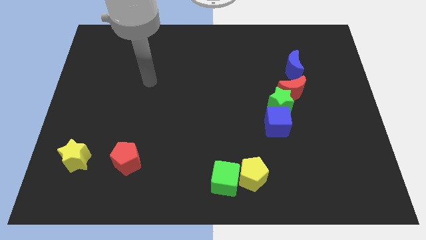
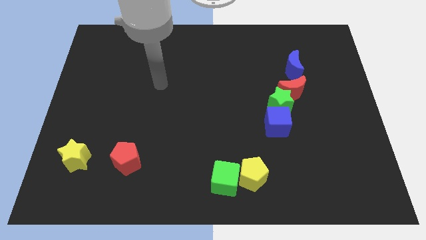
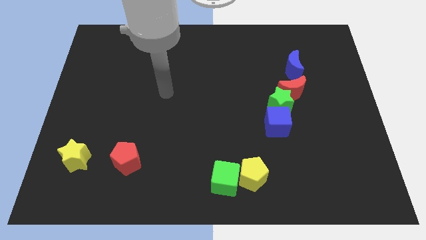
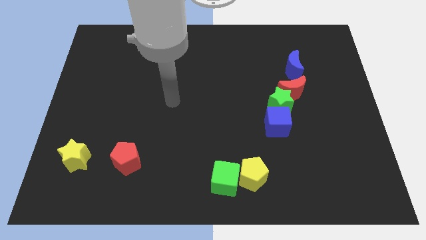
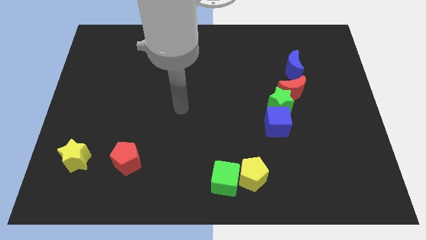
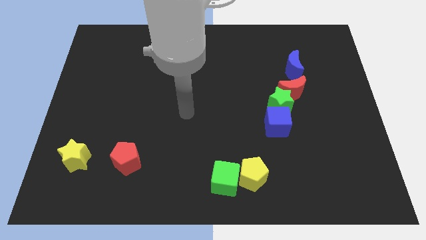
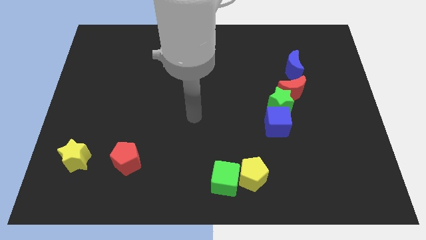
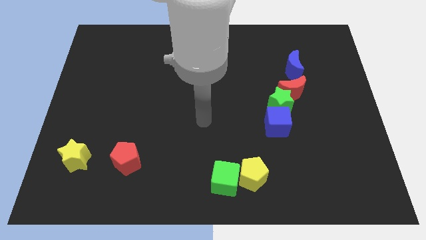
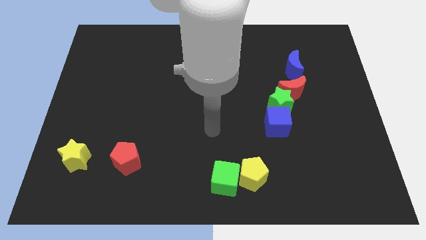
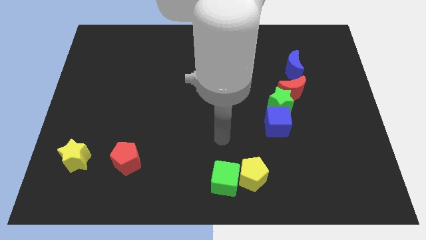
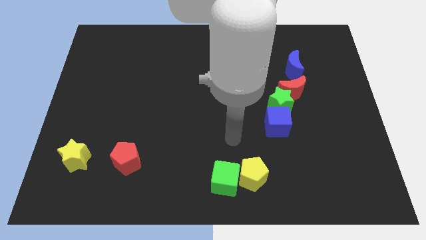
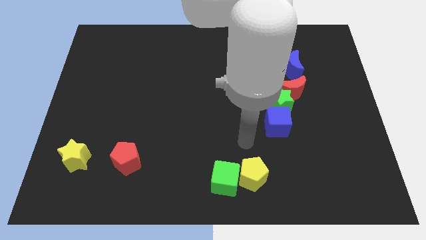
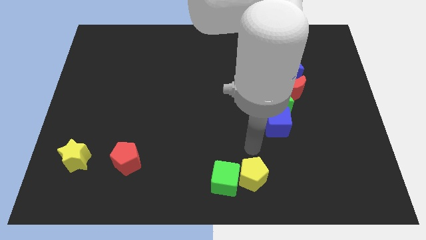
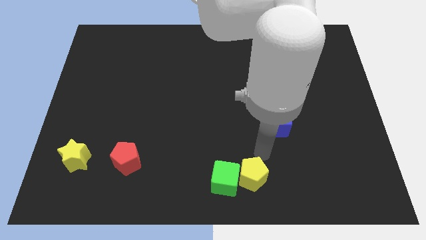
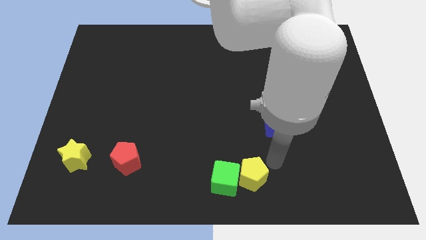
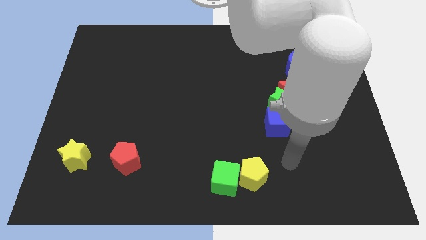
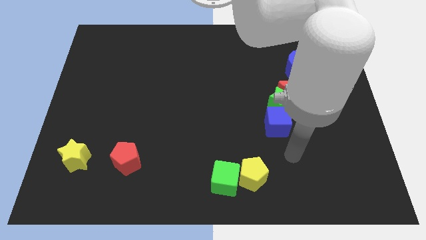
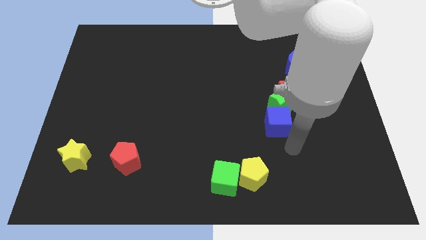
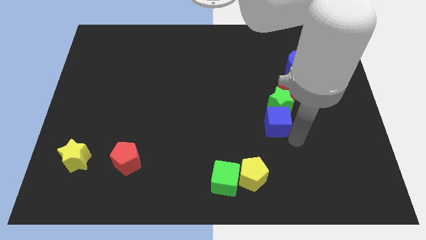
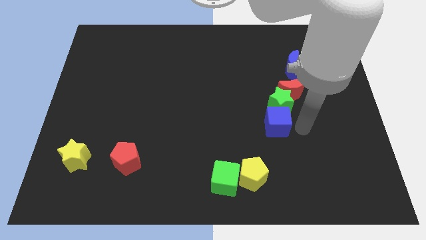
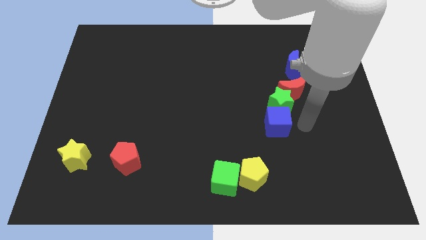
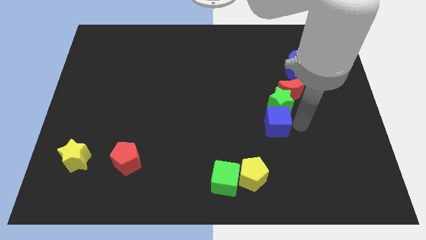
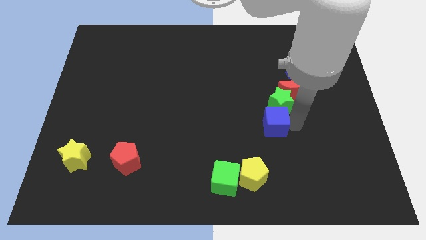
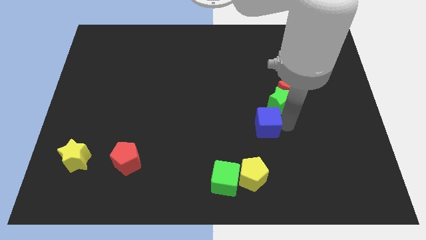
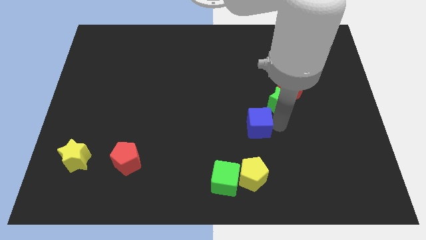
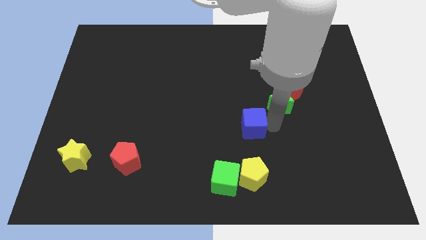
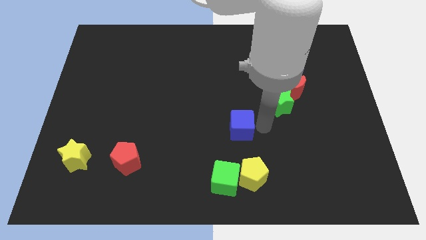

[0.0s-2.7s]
slightly slide the blue cube left

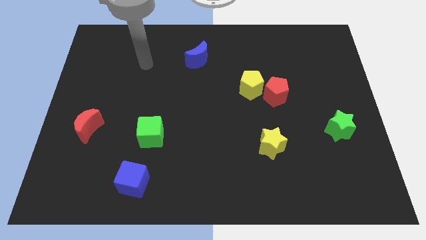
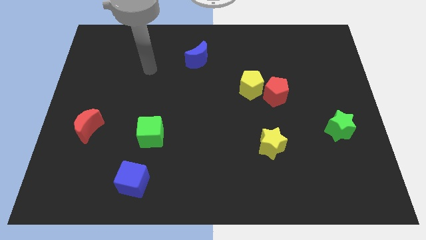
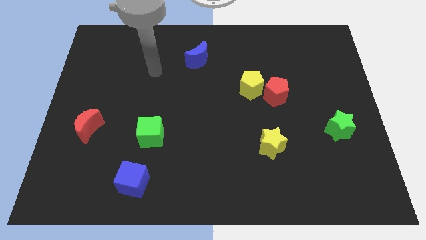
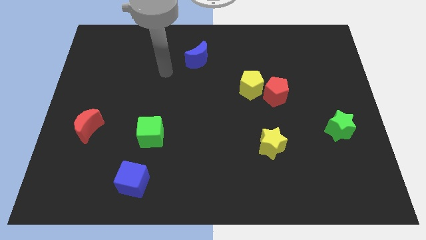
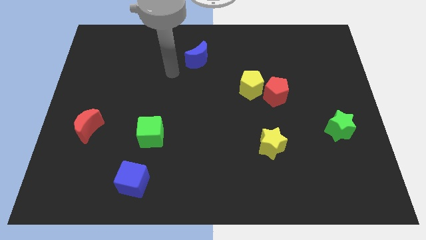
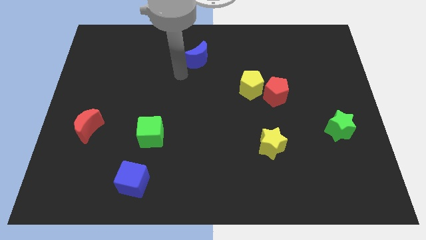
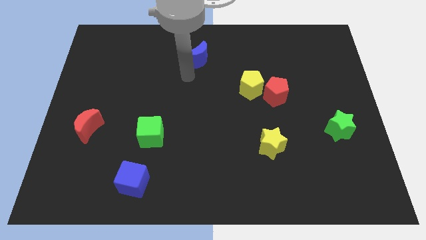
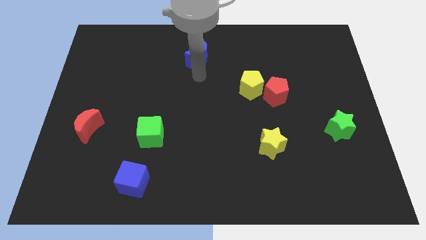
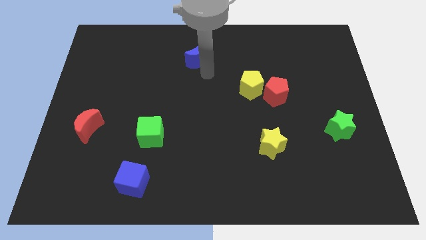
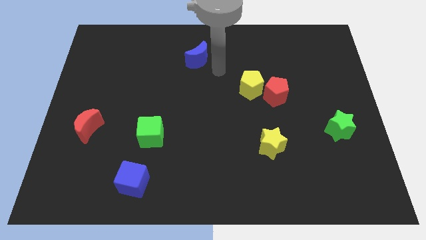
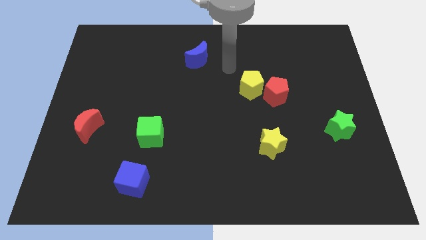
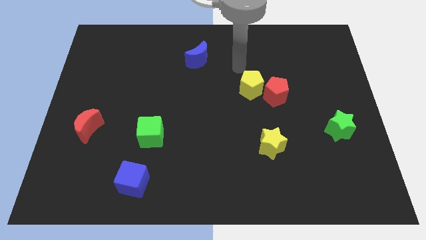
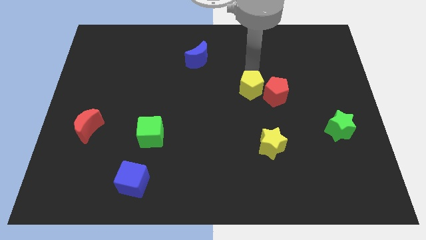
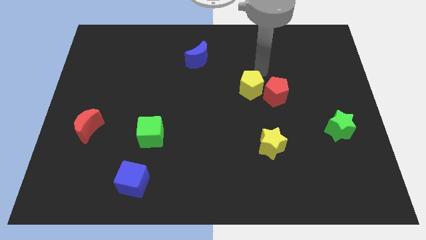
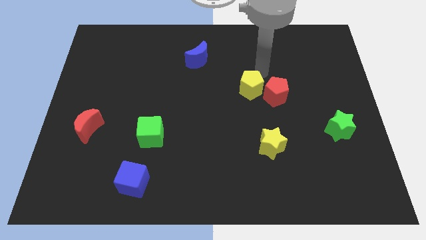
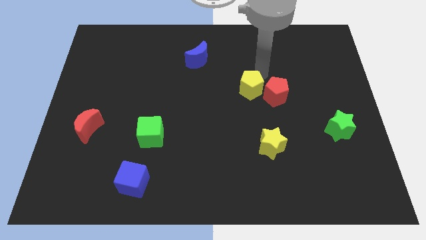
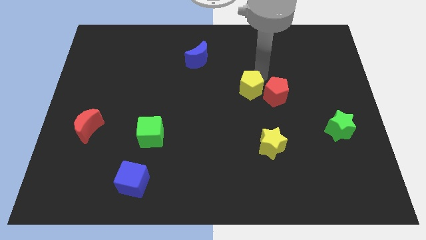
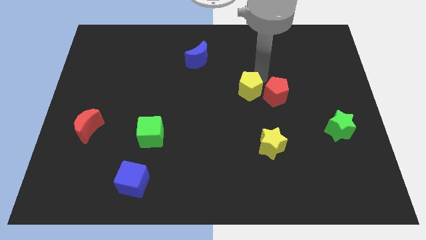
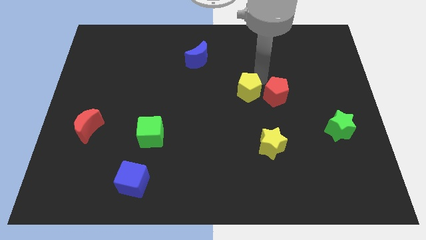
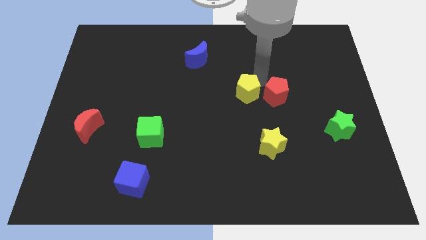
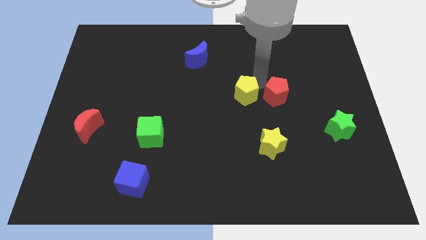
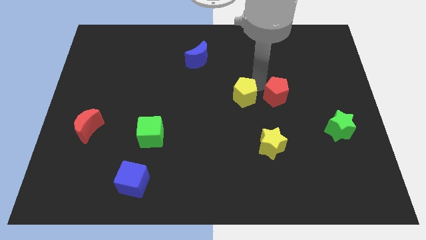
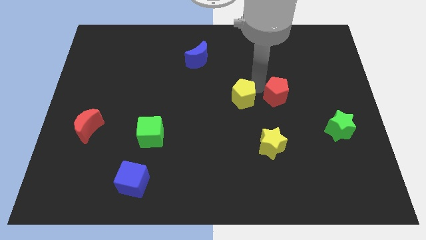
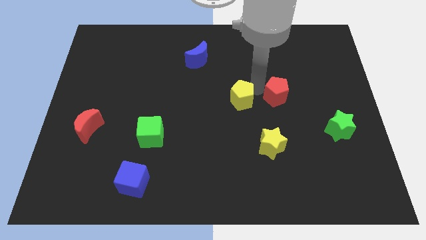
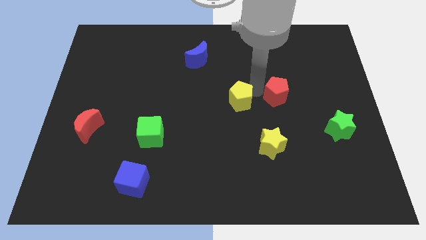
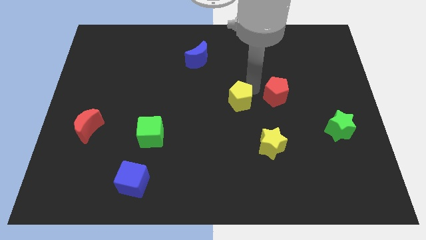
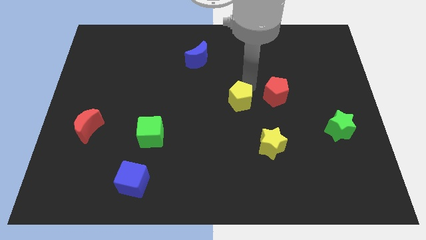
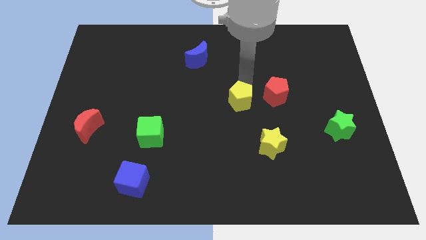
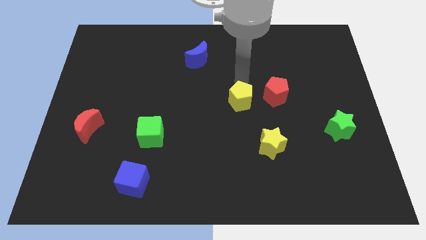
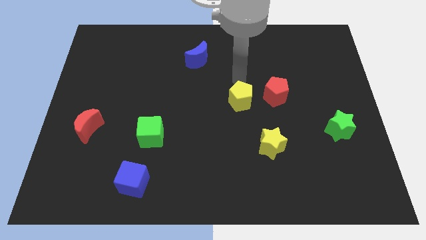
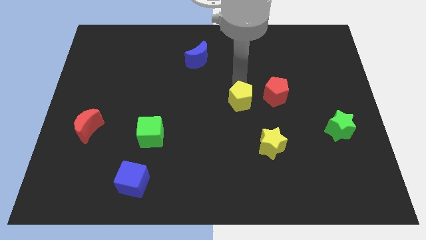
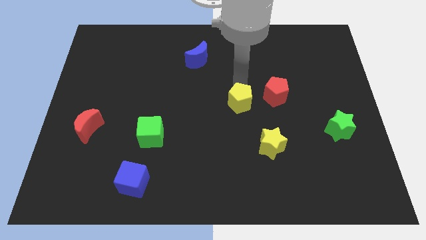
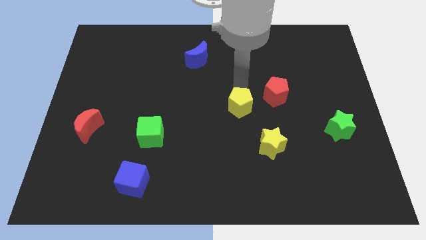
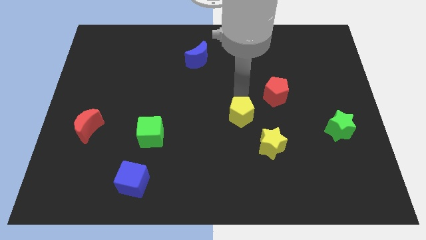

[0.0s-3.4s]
slightly push the yellow pentagon down

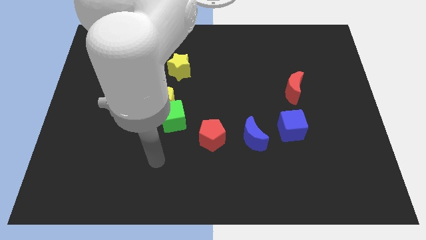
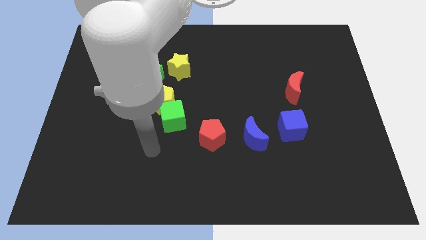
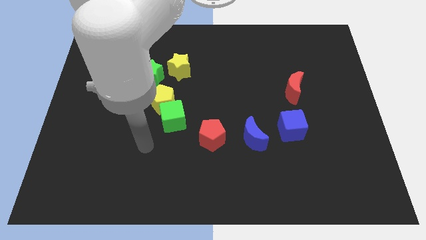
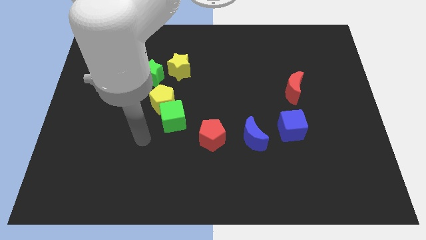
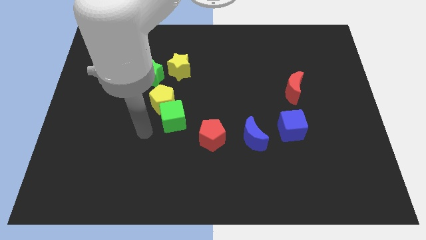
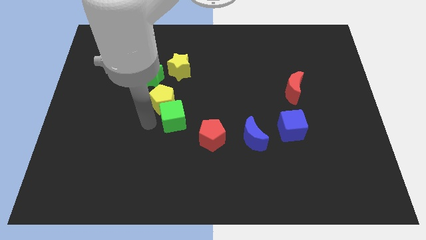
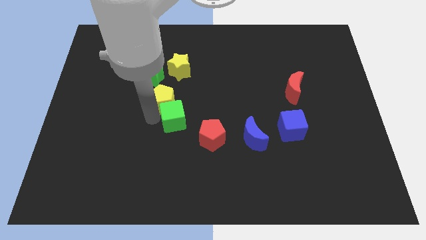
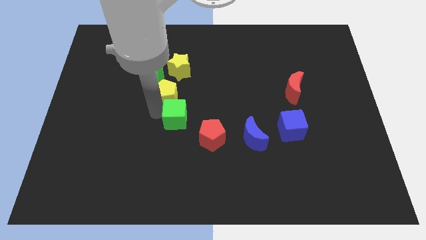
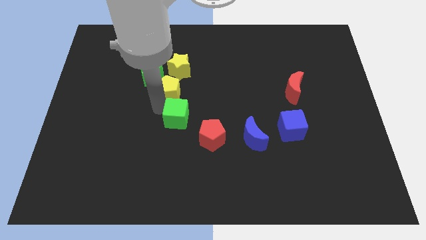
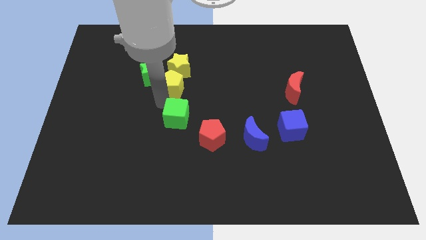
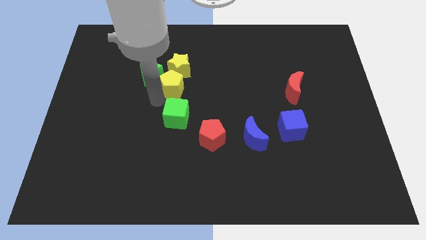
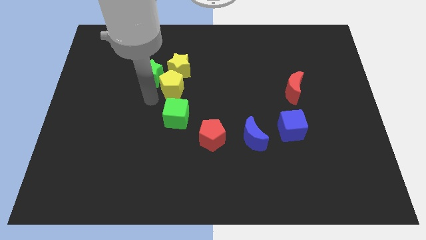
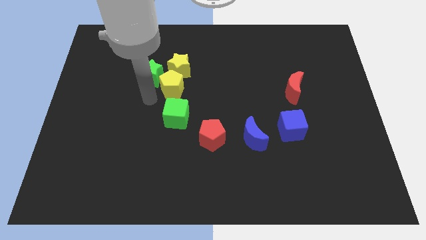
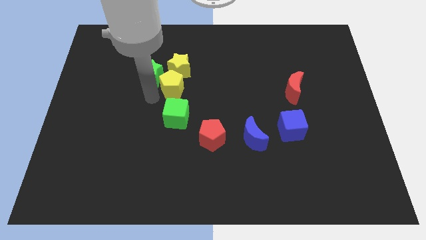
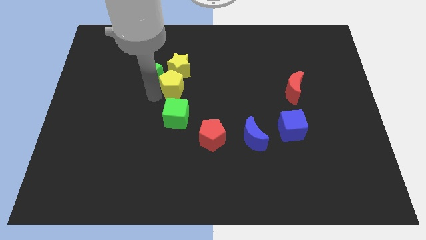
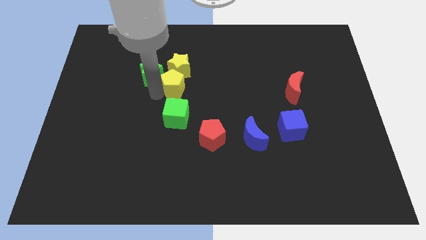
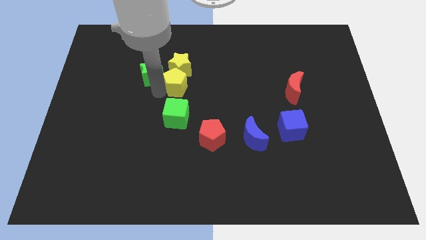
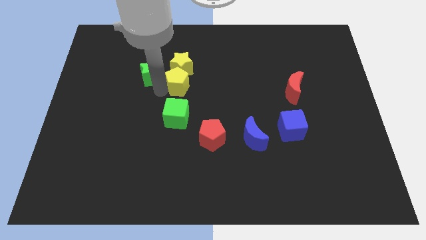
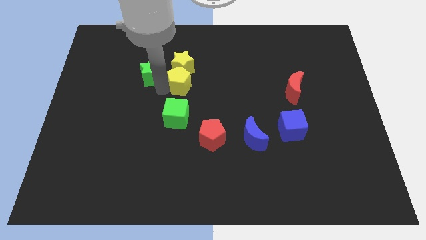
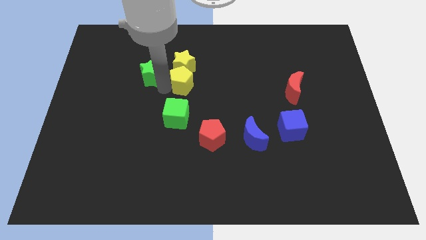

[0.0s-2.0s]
move the yellow pentagon up and right diagonally a little bit
